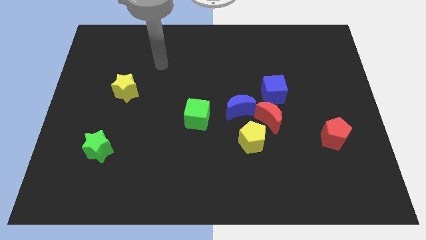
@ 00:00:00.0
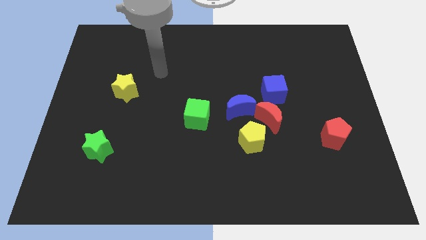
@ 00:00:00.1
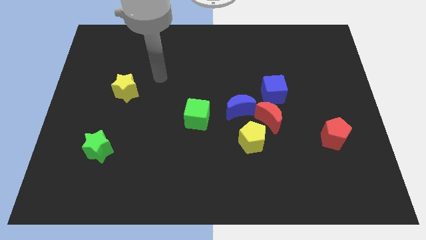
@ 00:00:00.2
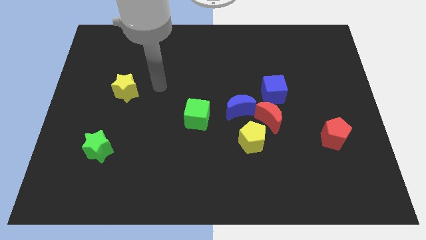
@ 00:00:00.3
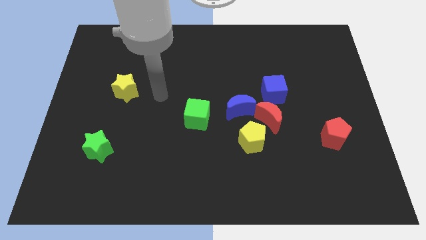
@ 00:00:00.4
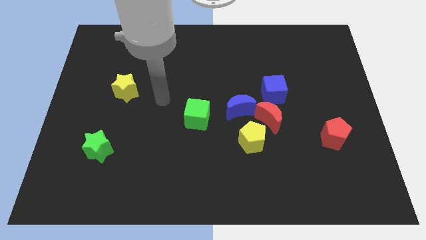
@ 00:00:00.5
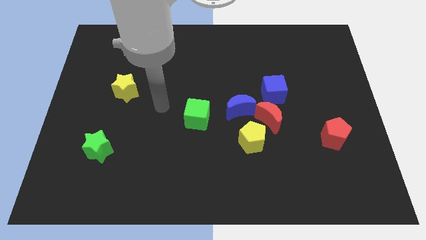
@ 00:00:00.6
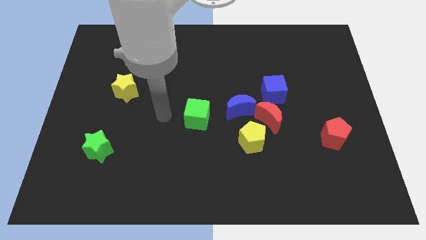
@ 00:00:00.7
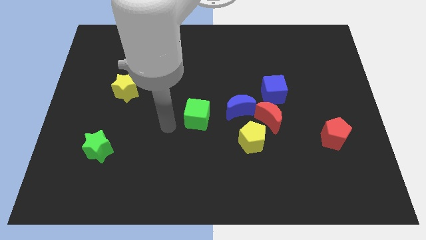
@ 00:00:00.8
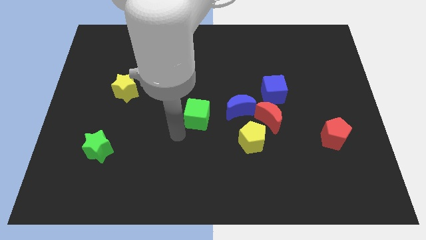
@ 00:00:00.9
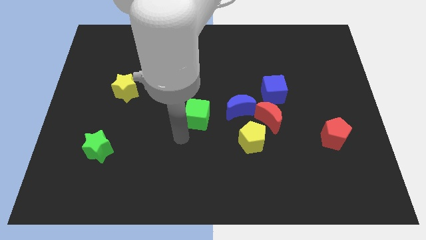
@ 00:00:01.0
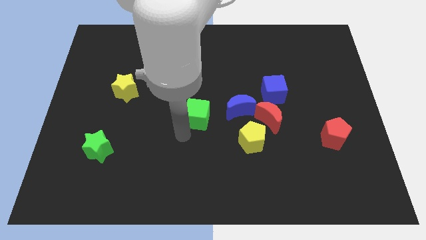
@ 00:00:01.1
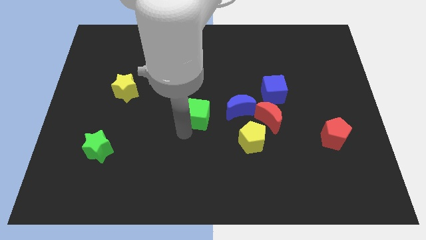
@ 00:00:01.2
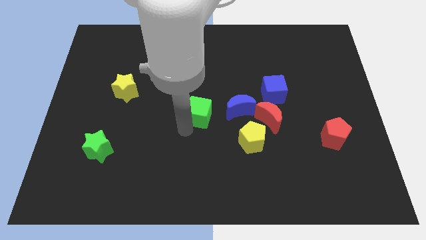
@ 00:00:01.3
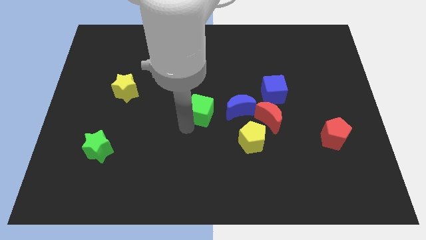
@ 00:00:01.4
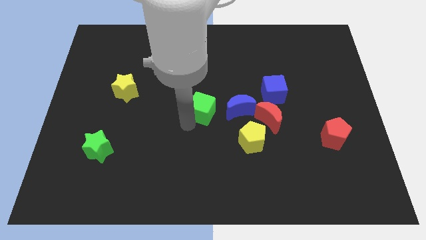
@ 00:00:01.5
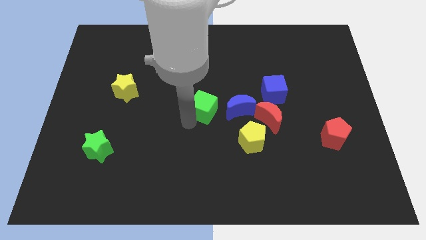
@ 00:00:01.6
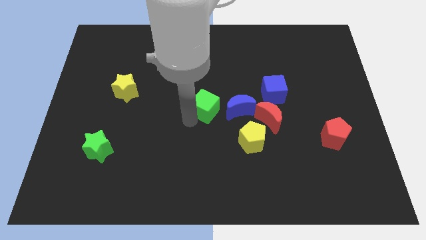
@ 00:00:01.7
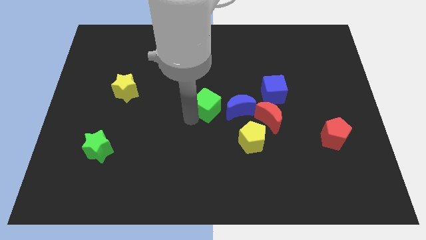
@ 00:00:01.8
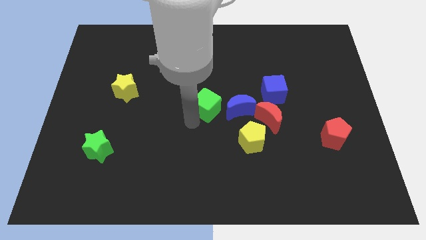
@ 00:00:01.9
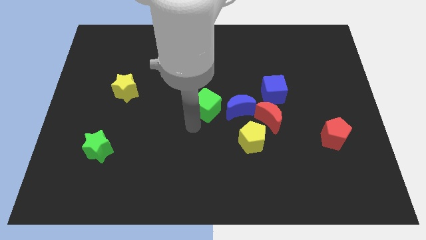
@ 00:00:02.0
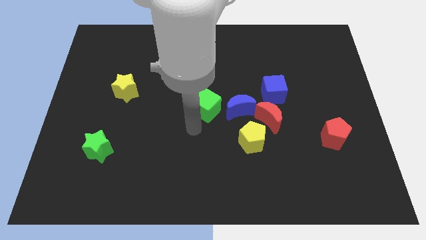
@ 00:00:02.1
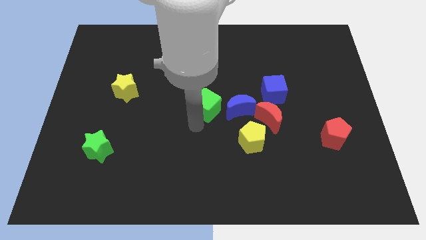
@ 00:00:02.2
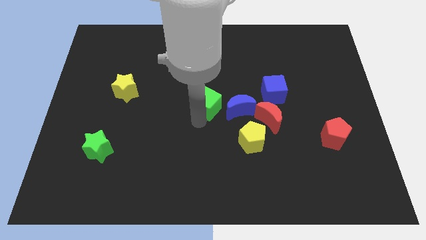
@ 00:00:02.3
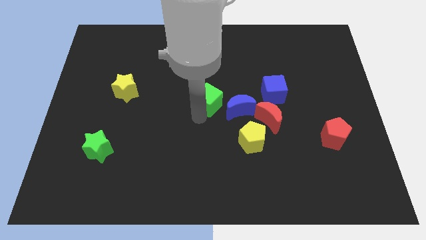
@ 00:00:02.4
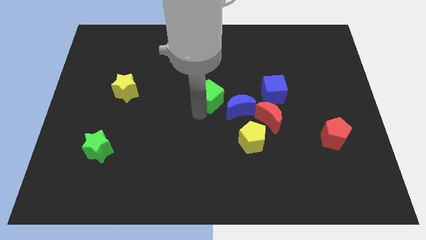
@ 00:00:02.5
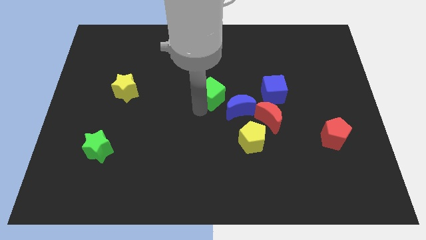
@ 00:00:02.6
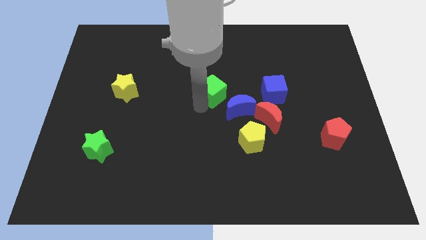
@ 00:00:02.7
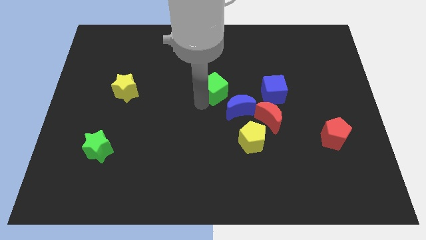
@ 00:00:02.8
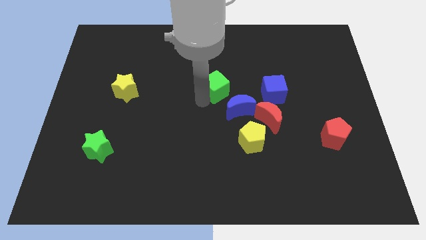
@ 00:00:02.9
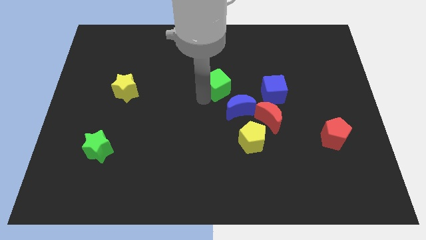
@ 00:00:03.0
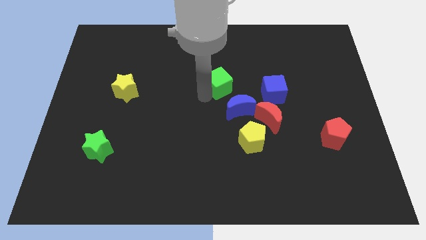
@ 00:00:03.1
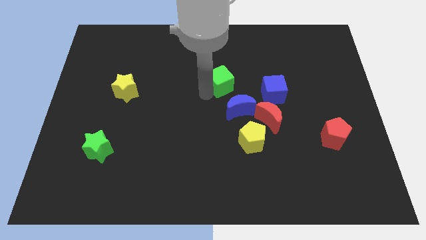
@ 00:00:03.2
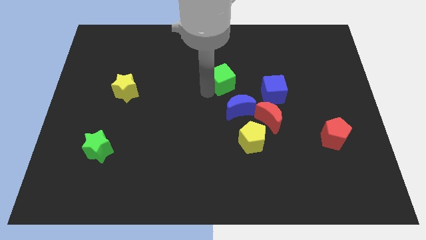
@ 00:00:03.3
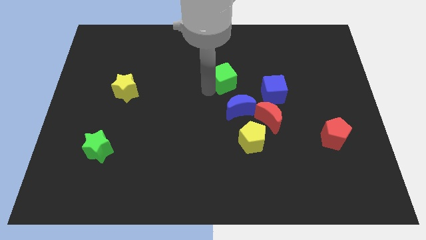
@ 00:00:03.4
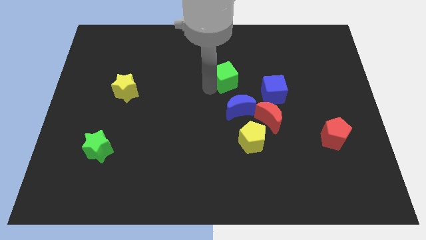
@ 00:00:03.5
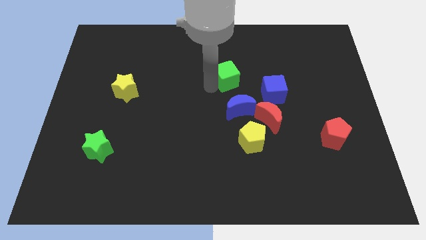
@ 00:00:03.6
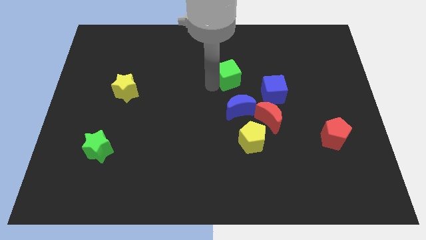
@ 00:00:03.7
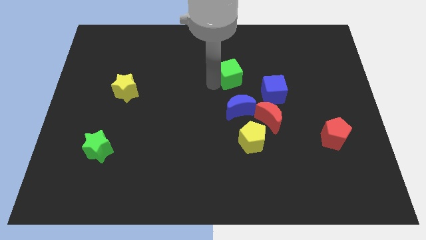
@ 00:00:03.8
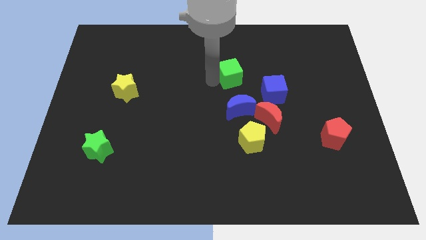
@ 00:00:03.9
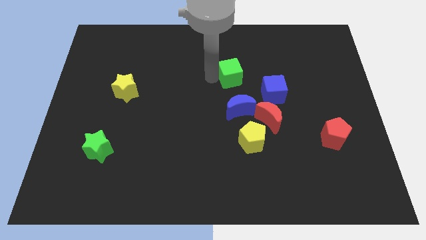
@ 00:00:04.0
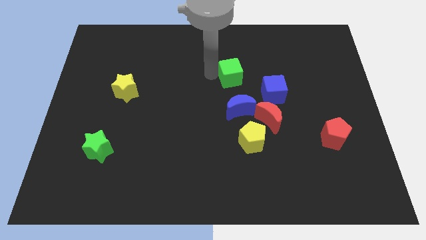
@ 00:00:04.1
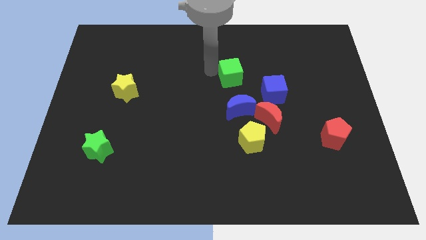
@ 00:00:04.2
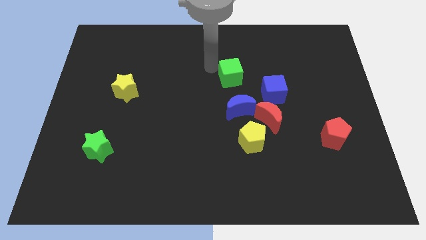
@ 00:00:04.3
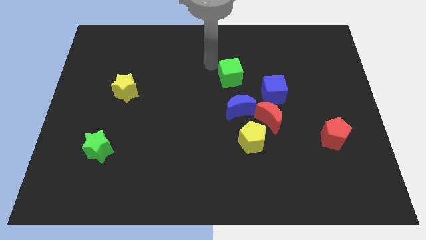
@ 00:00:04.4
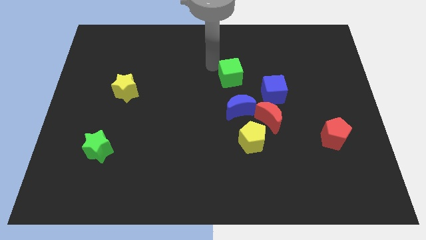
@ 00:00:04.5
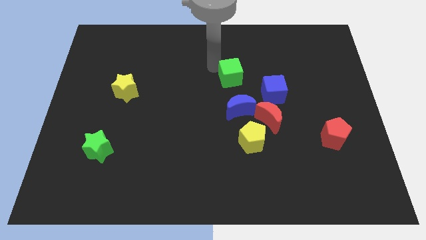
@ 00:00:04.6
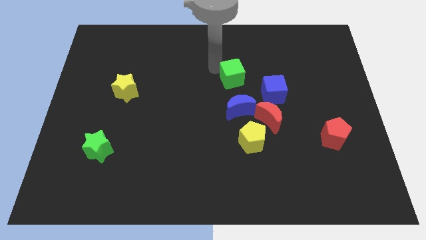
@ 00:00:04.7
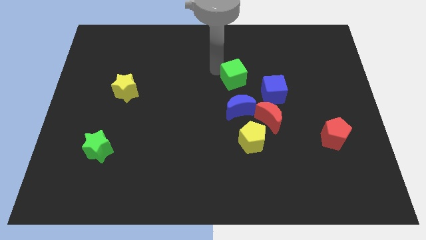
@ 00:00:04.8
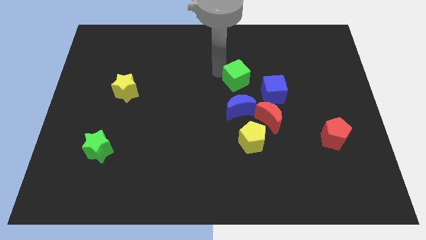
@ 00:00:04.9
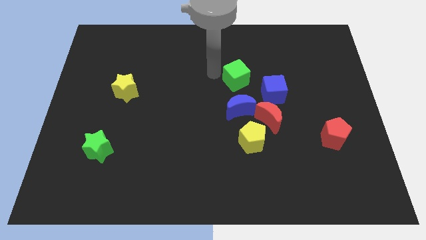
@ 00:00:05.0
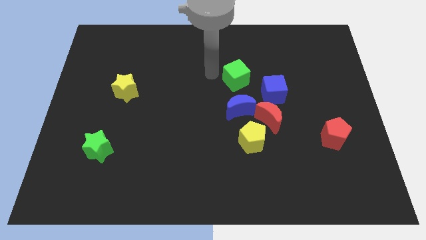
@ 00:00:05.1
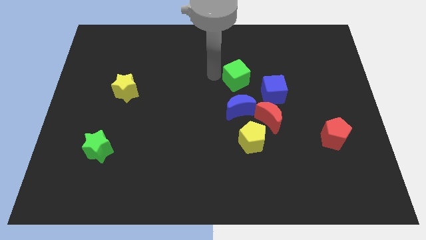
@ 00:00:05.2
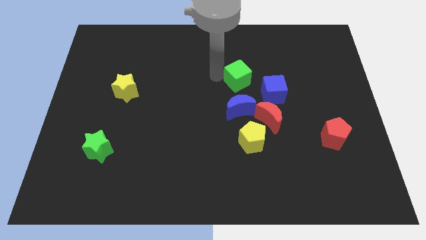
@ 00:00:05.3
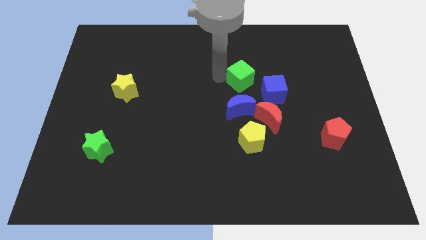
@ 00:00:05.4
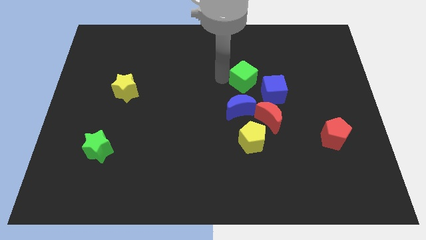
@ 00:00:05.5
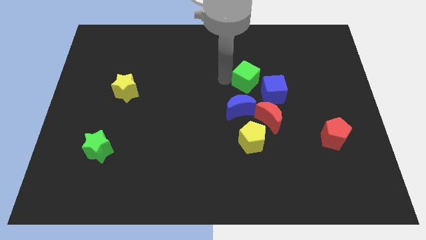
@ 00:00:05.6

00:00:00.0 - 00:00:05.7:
move the green cube to the top side of the red moon

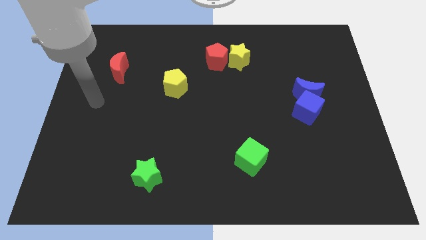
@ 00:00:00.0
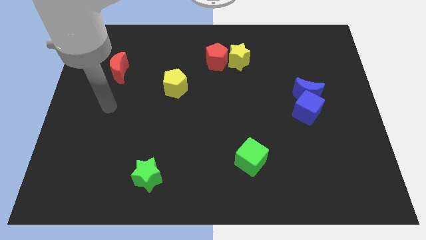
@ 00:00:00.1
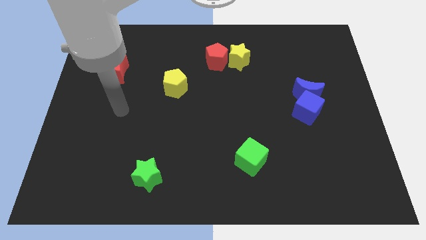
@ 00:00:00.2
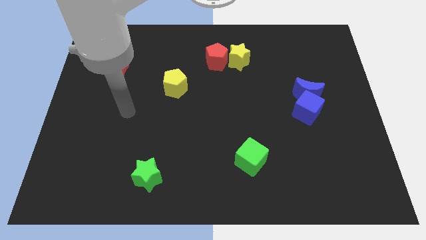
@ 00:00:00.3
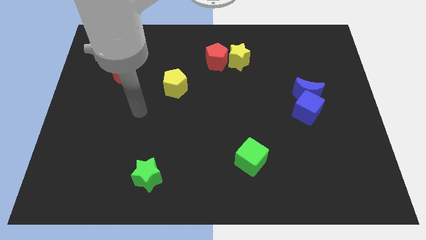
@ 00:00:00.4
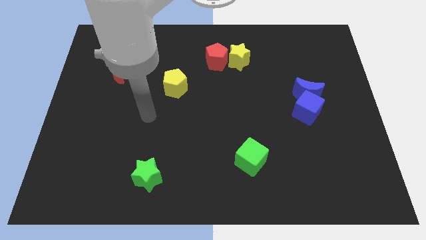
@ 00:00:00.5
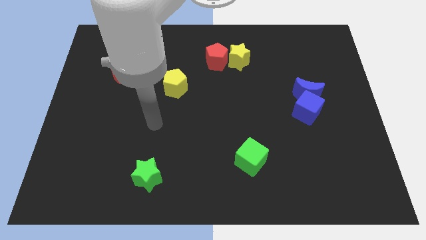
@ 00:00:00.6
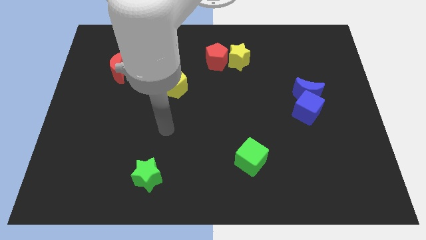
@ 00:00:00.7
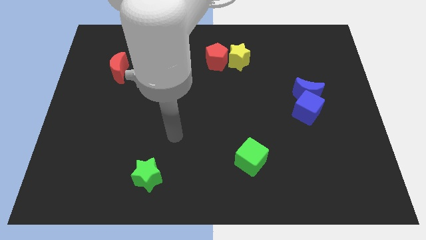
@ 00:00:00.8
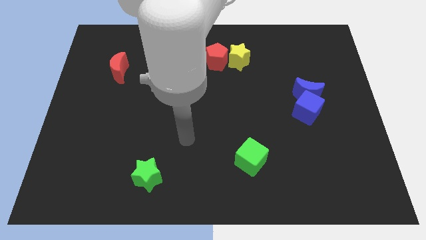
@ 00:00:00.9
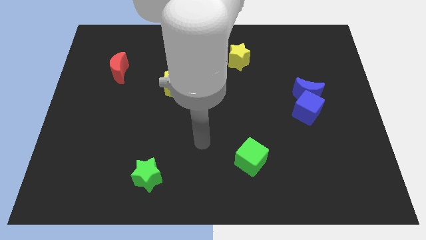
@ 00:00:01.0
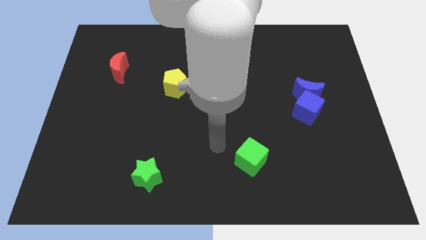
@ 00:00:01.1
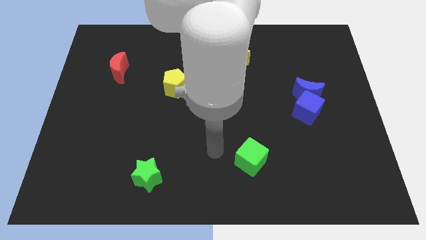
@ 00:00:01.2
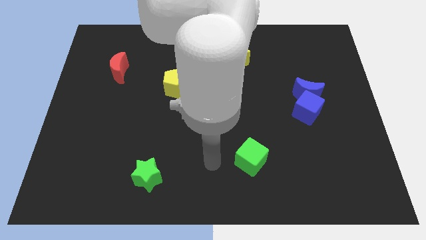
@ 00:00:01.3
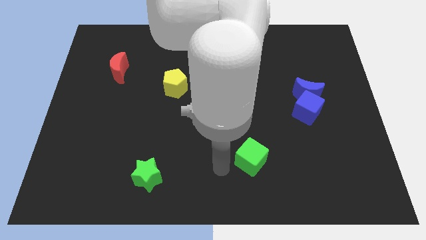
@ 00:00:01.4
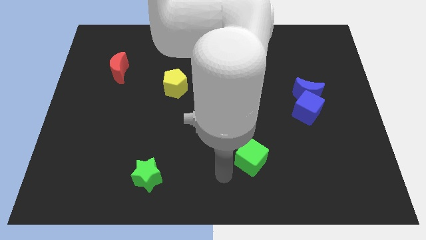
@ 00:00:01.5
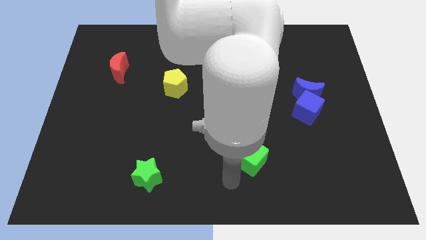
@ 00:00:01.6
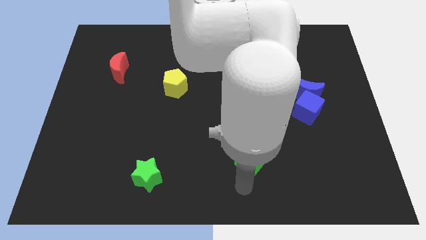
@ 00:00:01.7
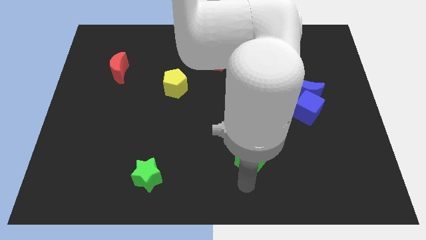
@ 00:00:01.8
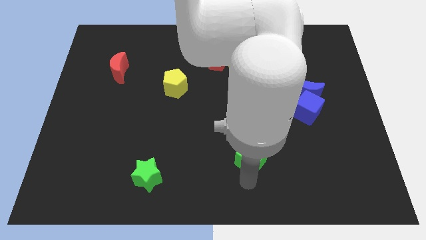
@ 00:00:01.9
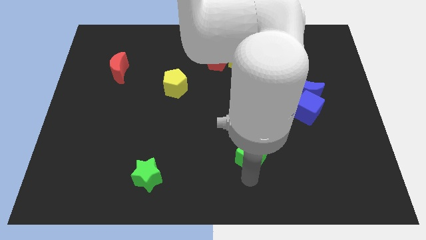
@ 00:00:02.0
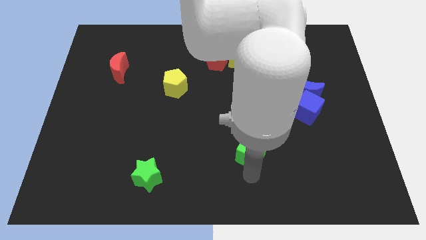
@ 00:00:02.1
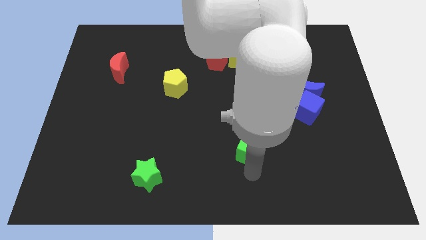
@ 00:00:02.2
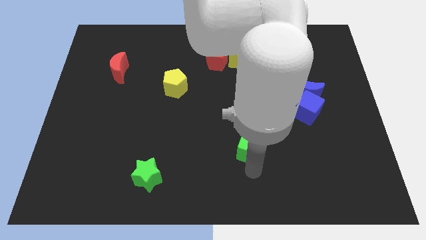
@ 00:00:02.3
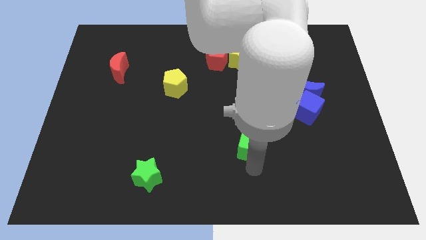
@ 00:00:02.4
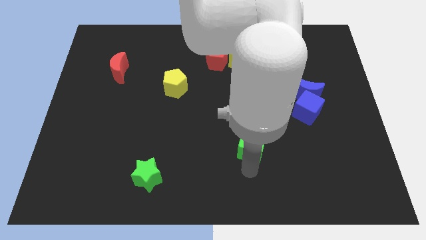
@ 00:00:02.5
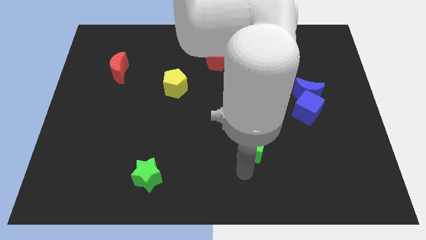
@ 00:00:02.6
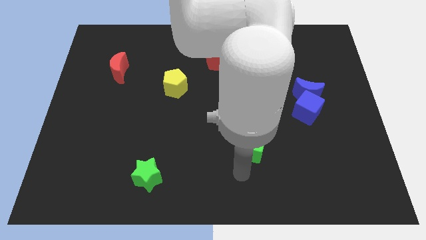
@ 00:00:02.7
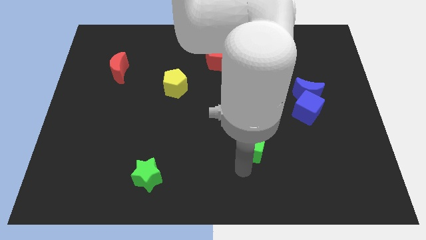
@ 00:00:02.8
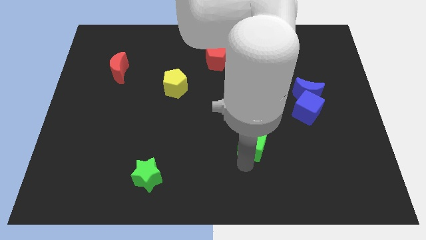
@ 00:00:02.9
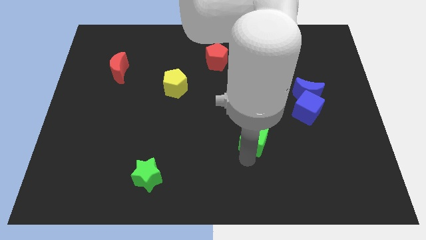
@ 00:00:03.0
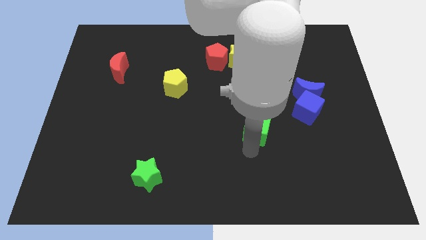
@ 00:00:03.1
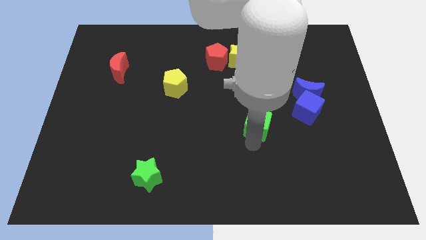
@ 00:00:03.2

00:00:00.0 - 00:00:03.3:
slide the green cube to the left of the blue cube
